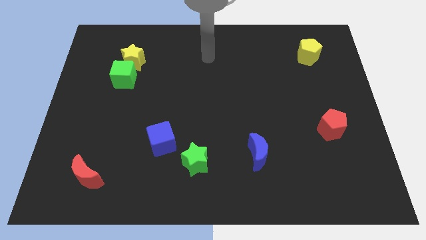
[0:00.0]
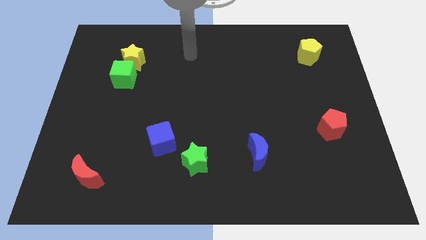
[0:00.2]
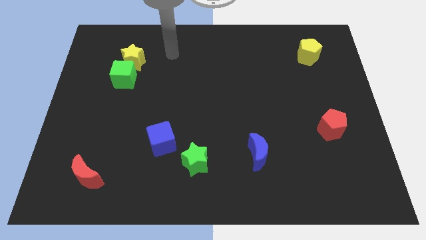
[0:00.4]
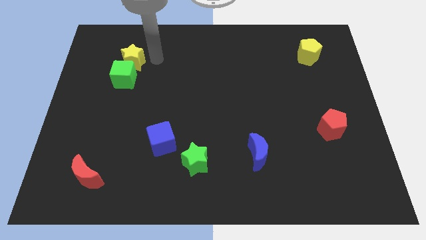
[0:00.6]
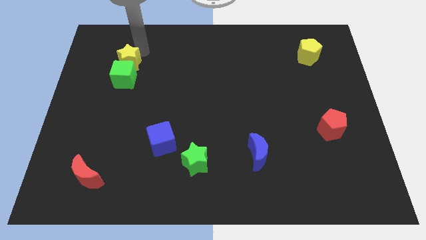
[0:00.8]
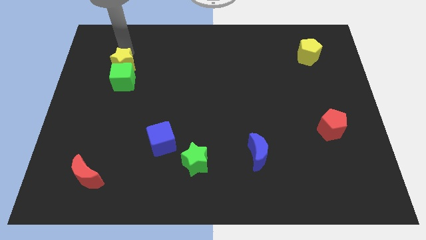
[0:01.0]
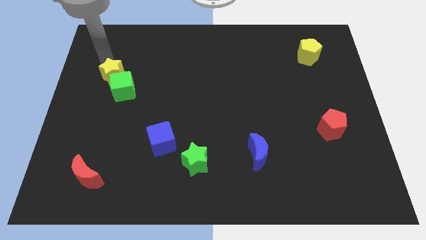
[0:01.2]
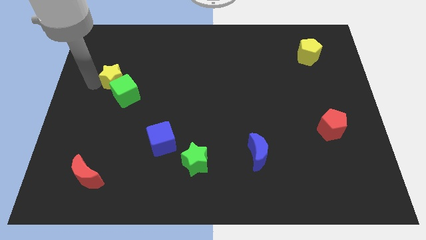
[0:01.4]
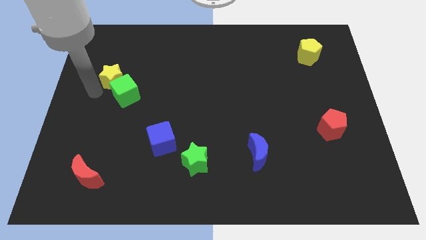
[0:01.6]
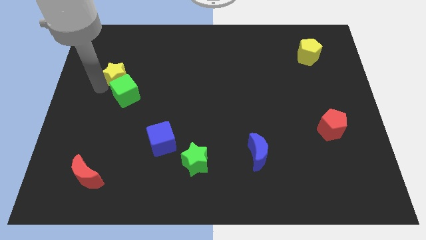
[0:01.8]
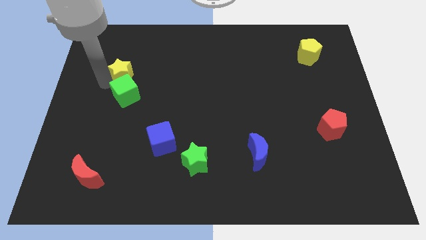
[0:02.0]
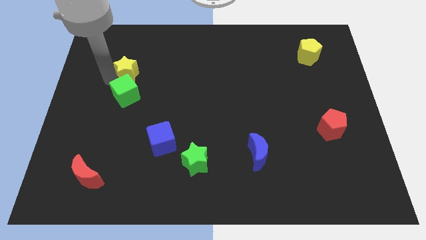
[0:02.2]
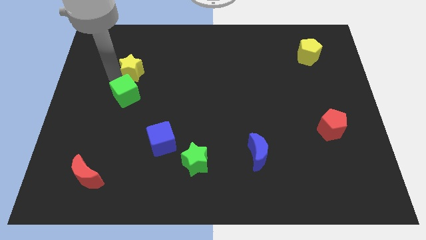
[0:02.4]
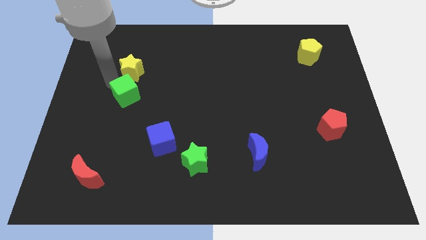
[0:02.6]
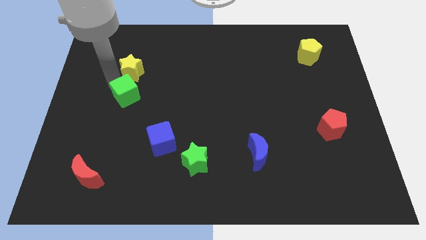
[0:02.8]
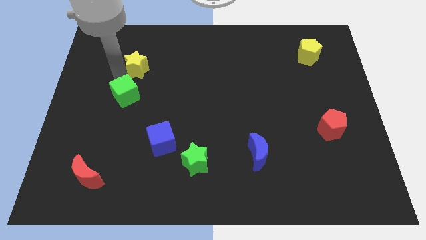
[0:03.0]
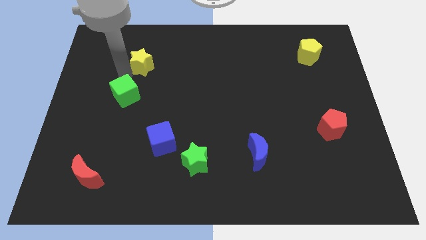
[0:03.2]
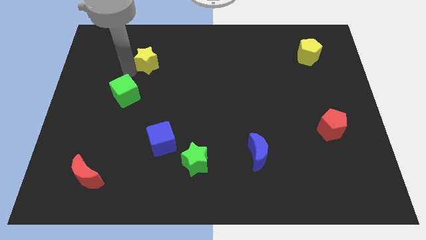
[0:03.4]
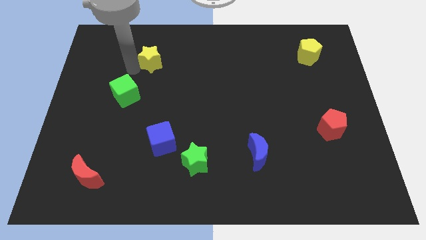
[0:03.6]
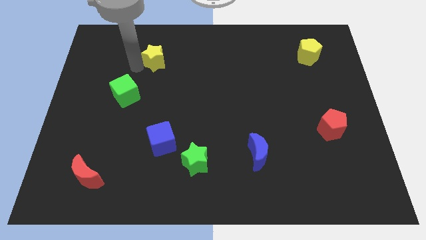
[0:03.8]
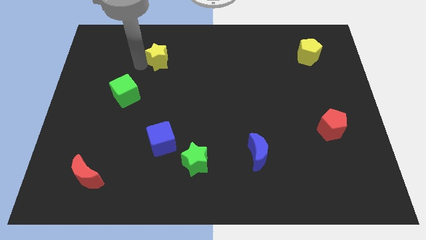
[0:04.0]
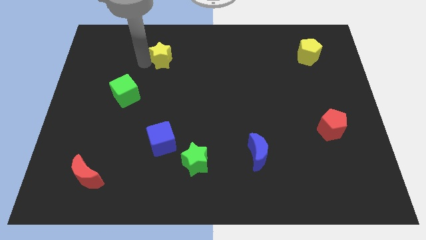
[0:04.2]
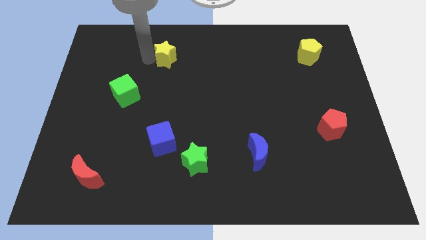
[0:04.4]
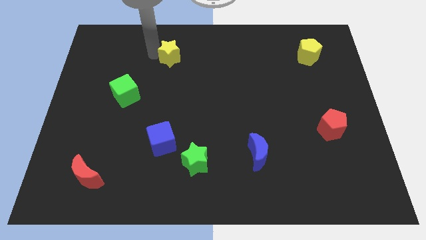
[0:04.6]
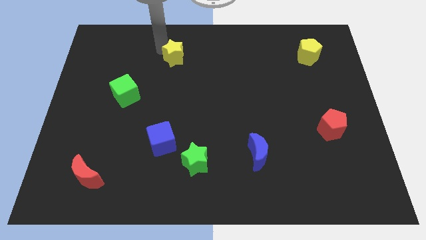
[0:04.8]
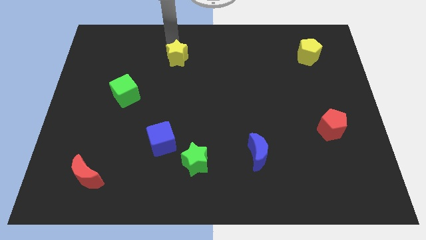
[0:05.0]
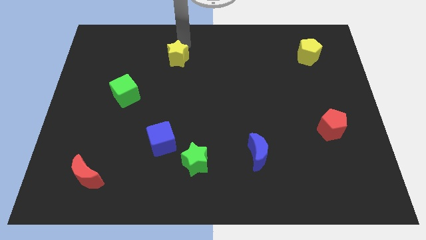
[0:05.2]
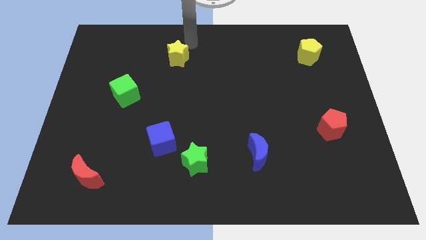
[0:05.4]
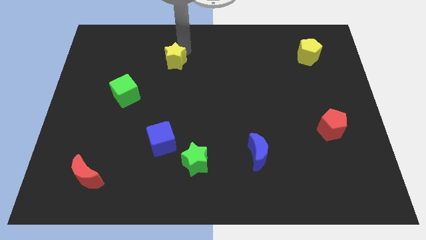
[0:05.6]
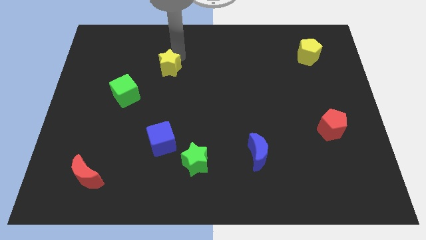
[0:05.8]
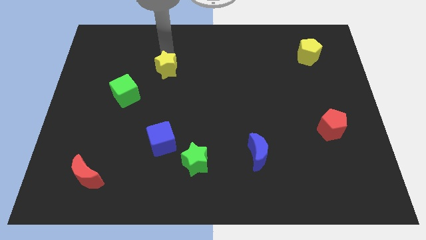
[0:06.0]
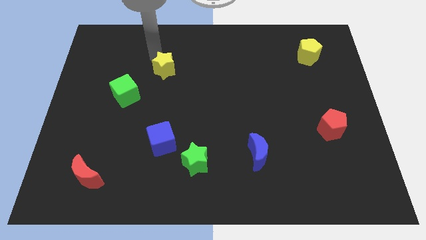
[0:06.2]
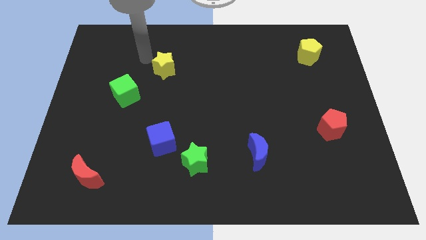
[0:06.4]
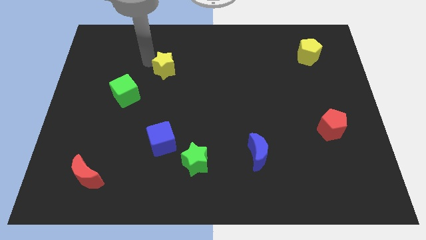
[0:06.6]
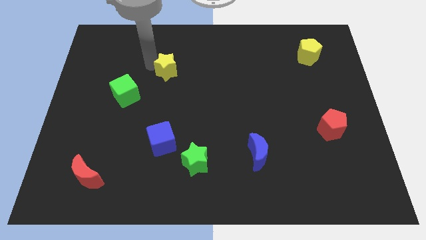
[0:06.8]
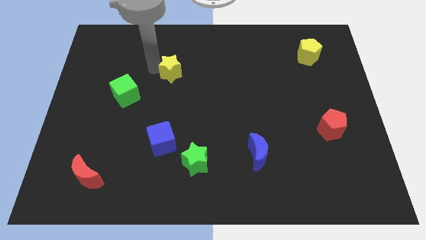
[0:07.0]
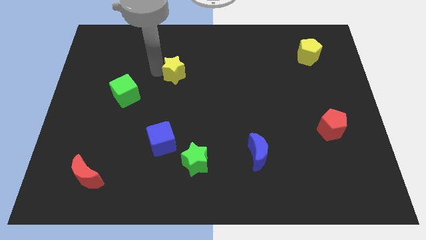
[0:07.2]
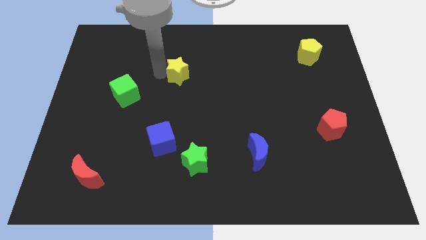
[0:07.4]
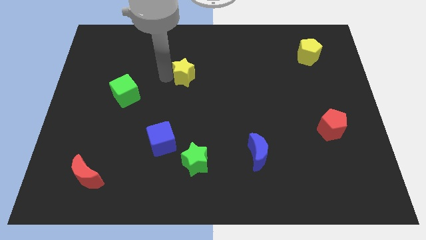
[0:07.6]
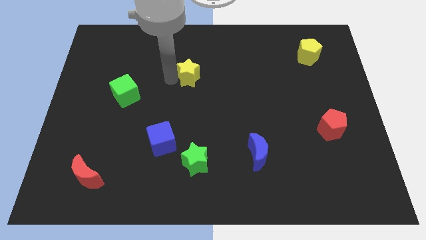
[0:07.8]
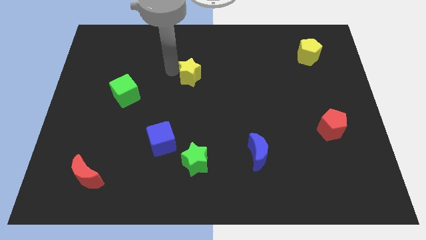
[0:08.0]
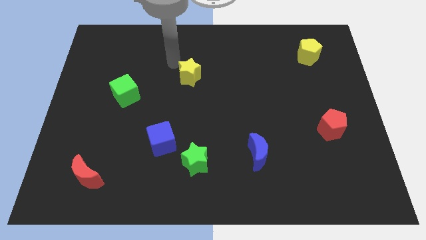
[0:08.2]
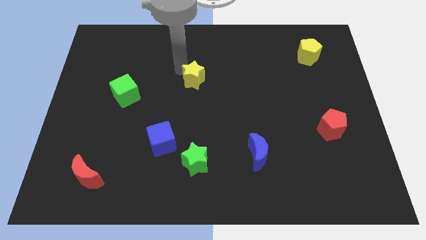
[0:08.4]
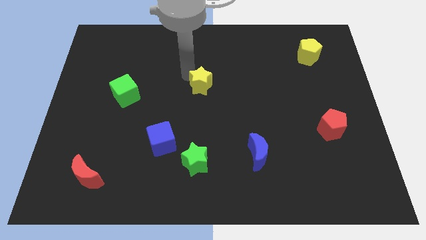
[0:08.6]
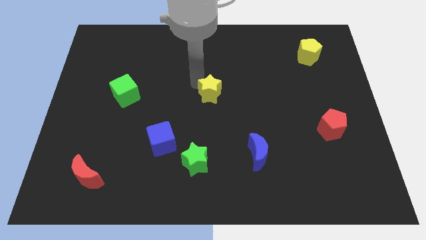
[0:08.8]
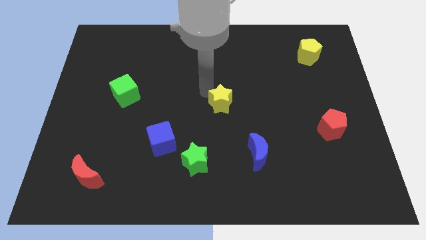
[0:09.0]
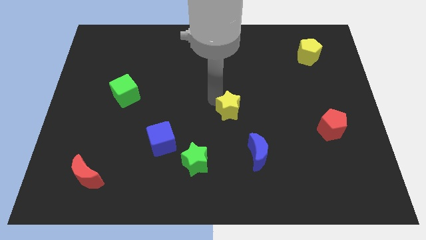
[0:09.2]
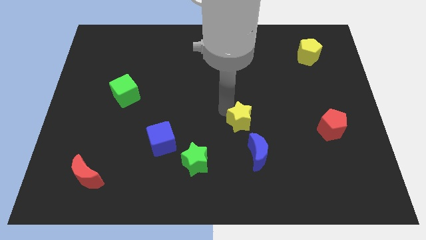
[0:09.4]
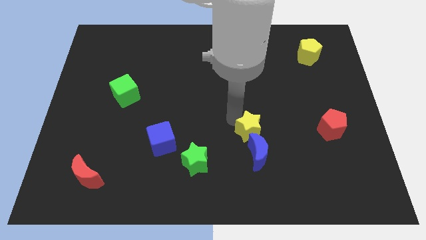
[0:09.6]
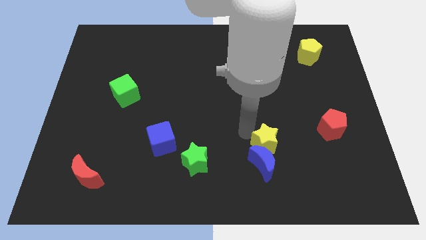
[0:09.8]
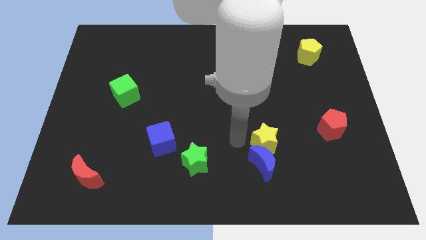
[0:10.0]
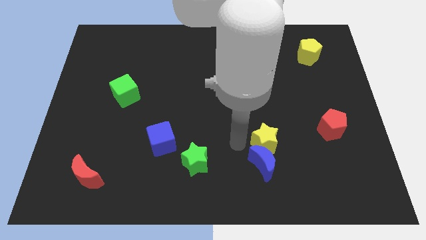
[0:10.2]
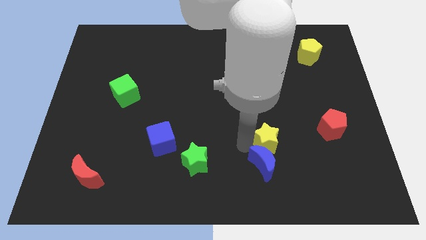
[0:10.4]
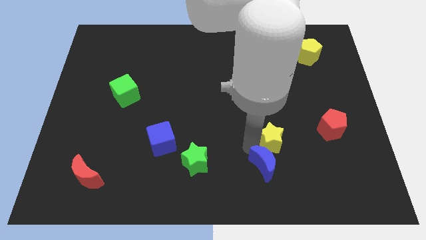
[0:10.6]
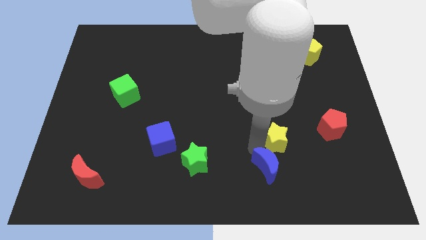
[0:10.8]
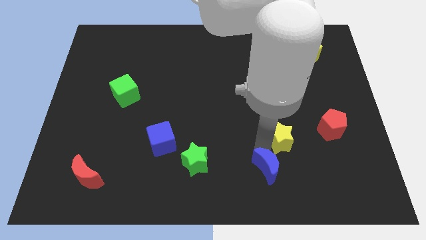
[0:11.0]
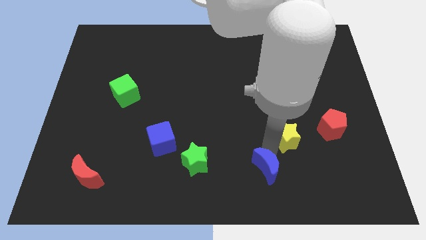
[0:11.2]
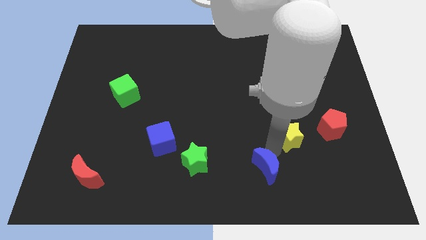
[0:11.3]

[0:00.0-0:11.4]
move the yellow star diagonally down and to the left of the red pentagon

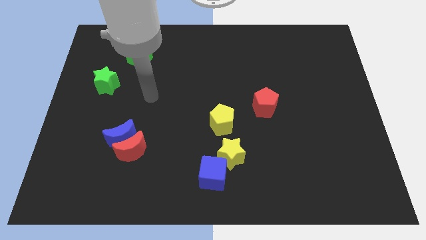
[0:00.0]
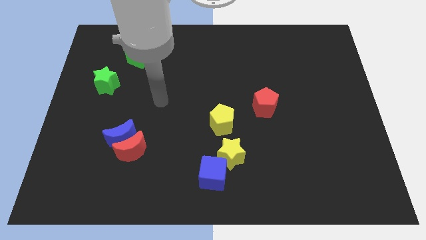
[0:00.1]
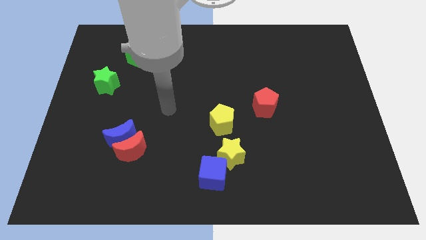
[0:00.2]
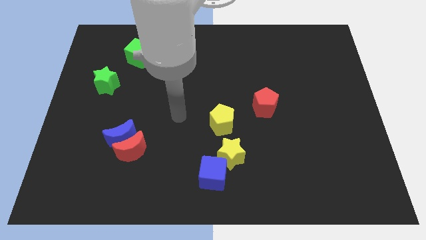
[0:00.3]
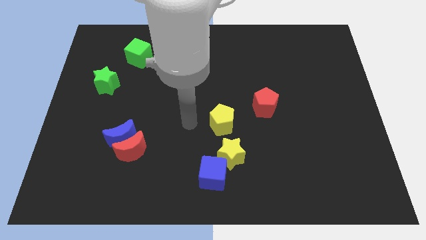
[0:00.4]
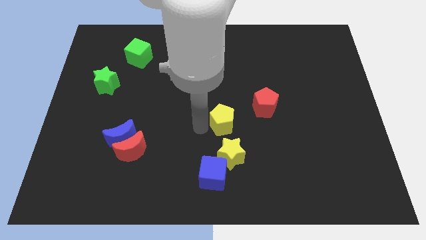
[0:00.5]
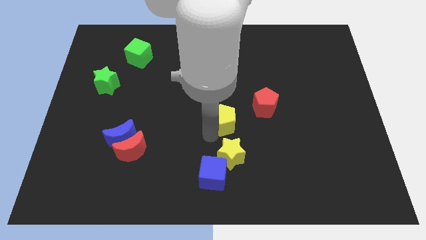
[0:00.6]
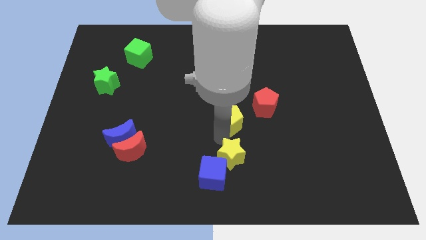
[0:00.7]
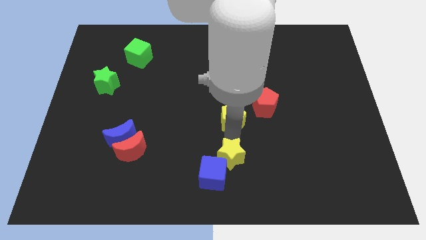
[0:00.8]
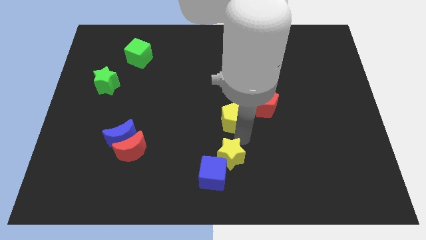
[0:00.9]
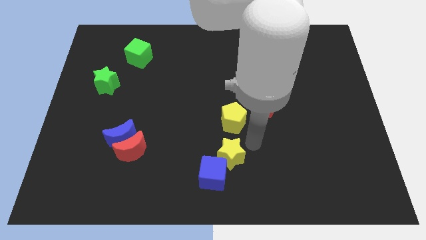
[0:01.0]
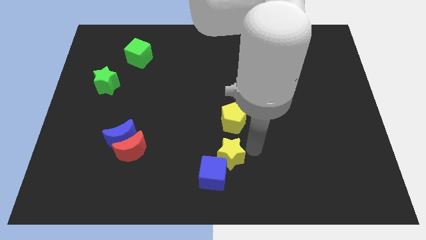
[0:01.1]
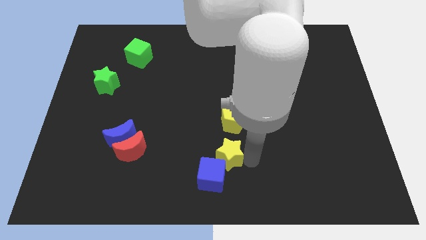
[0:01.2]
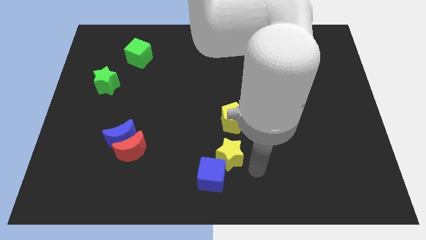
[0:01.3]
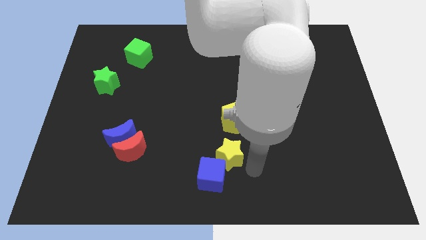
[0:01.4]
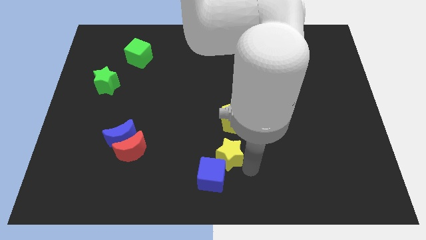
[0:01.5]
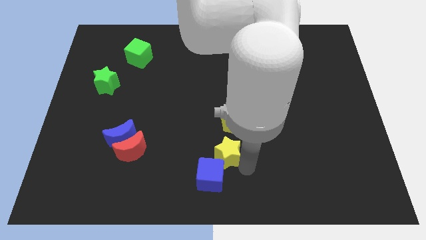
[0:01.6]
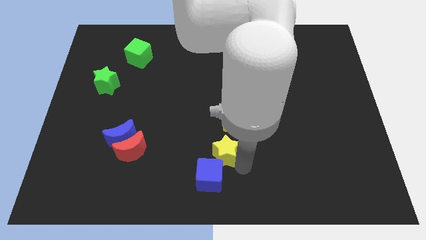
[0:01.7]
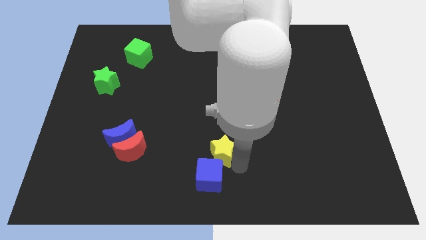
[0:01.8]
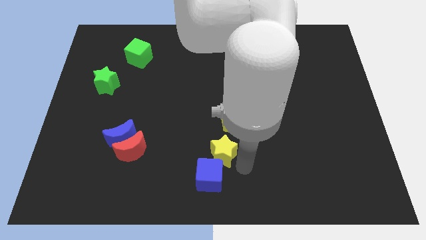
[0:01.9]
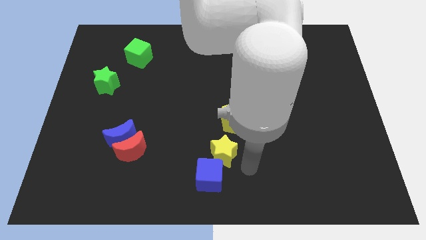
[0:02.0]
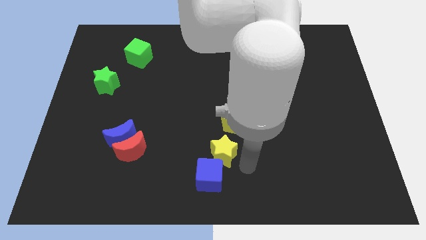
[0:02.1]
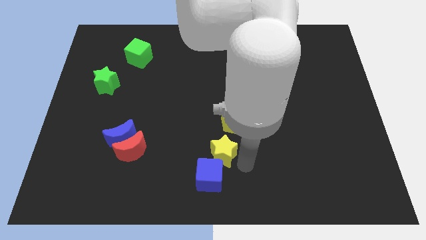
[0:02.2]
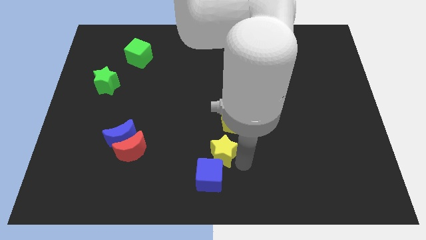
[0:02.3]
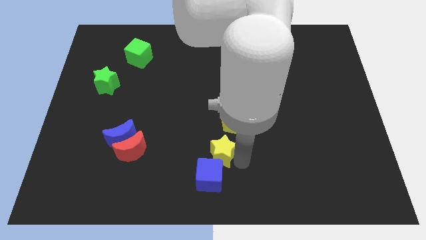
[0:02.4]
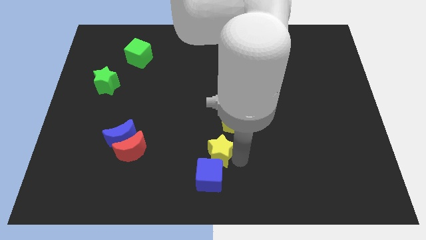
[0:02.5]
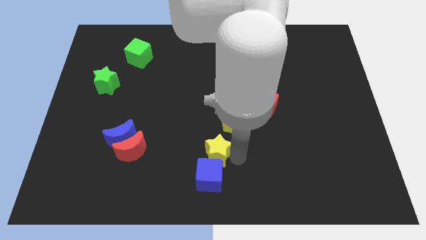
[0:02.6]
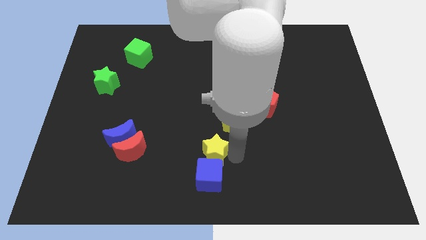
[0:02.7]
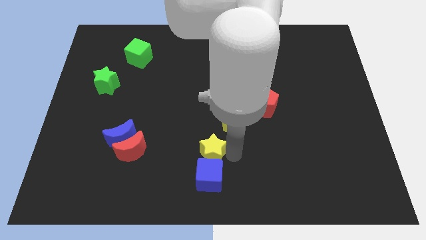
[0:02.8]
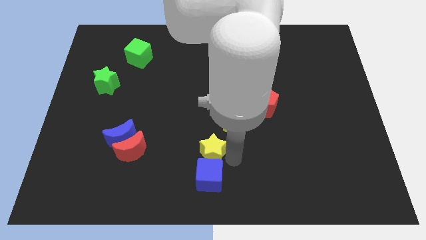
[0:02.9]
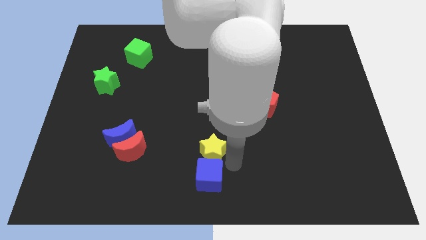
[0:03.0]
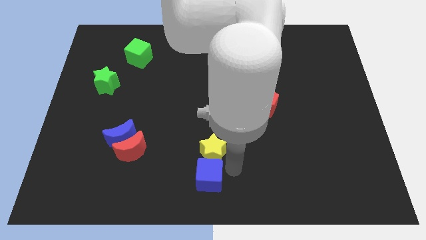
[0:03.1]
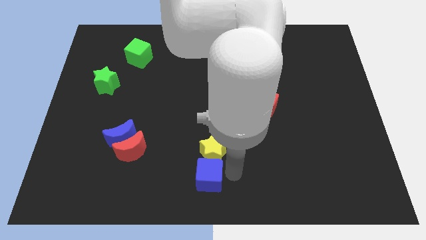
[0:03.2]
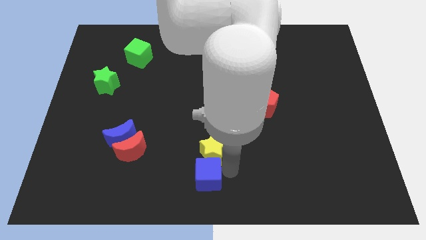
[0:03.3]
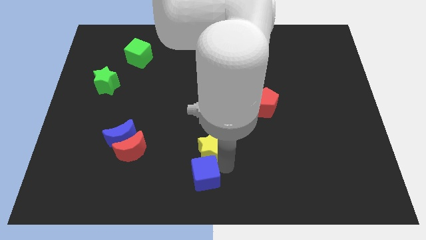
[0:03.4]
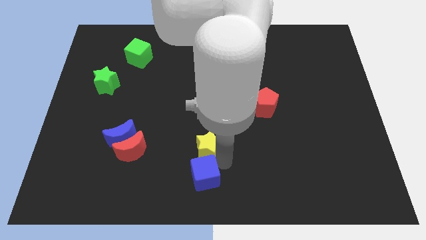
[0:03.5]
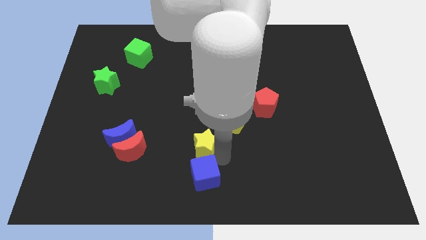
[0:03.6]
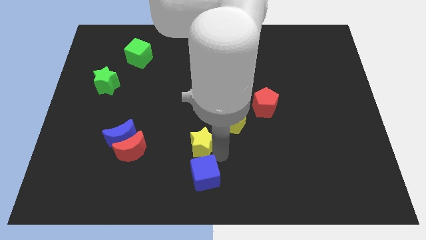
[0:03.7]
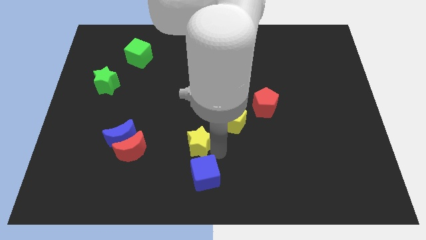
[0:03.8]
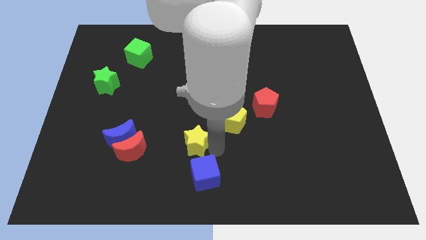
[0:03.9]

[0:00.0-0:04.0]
slide the yellow star to the right of the blue moon
